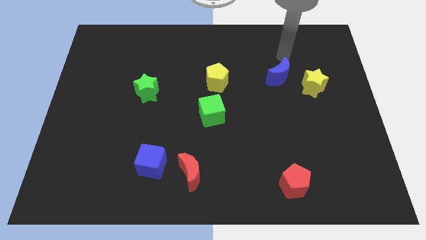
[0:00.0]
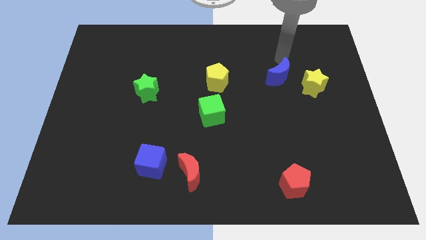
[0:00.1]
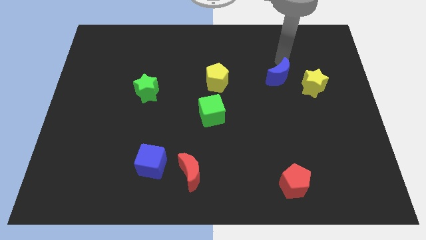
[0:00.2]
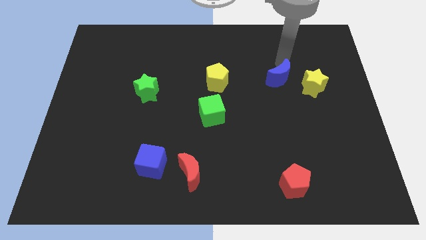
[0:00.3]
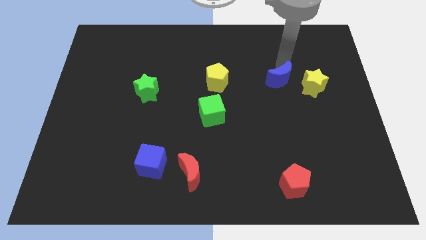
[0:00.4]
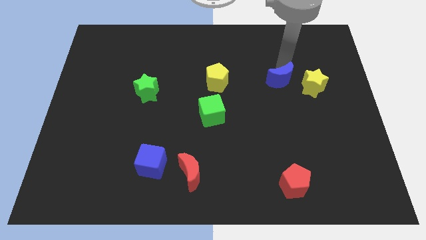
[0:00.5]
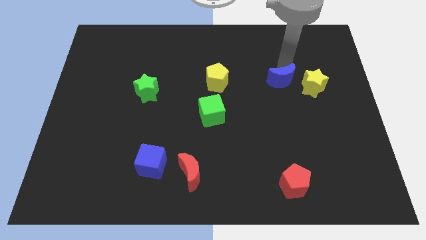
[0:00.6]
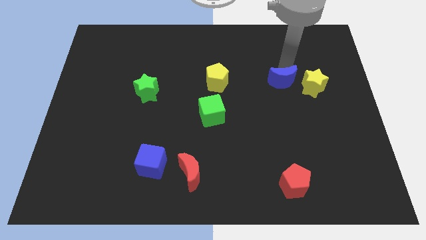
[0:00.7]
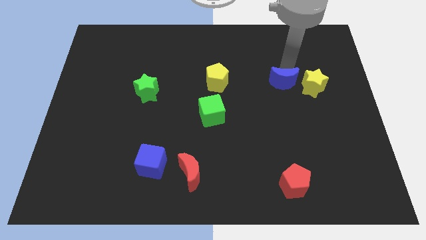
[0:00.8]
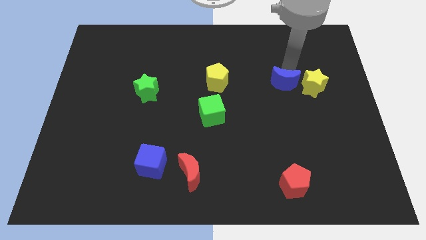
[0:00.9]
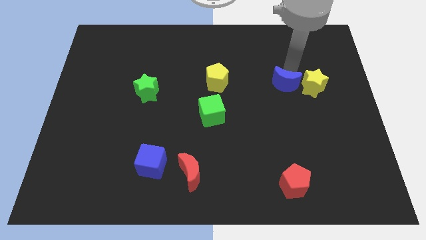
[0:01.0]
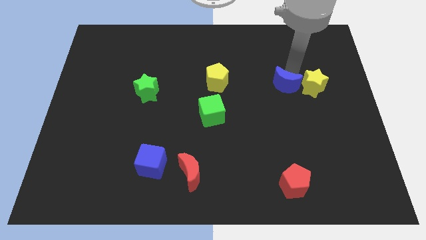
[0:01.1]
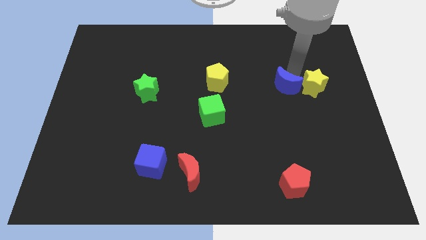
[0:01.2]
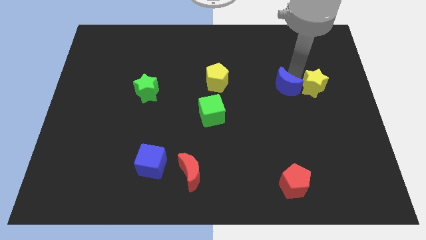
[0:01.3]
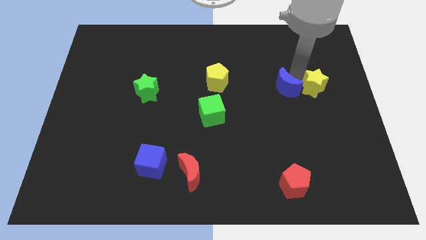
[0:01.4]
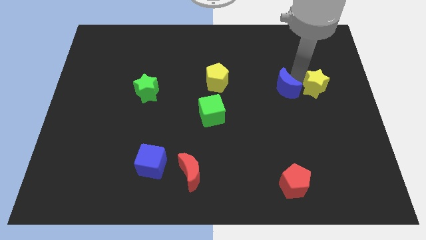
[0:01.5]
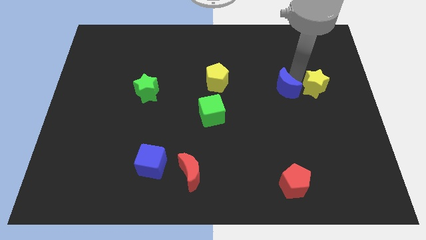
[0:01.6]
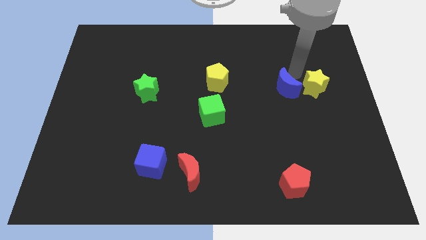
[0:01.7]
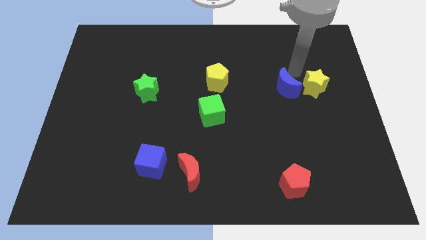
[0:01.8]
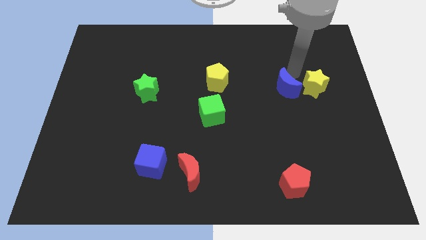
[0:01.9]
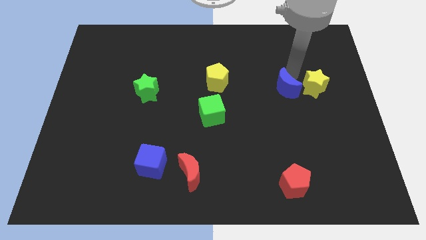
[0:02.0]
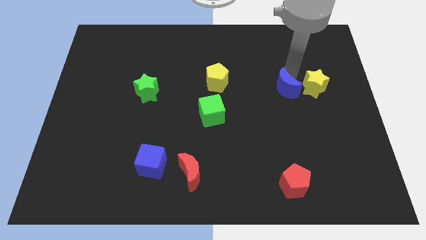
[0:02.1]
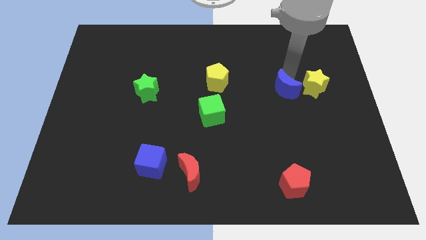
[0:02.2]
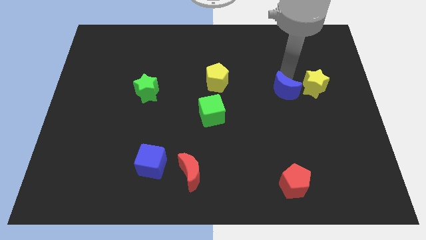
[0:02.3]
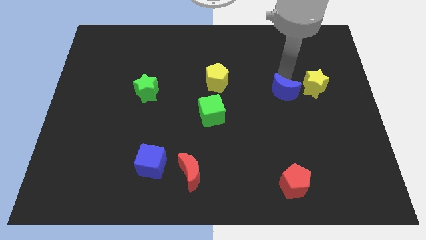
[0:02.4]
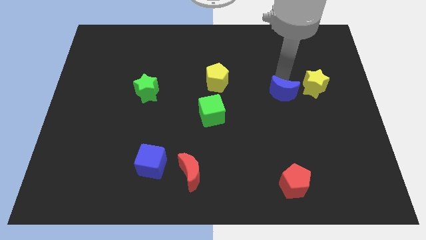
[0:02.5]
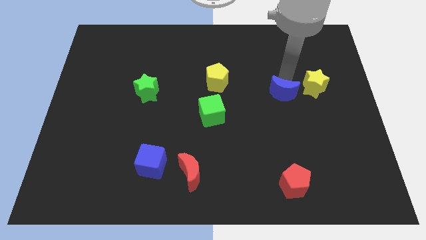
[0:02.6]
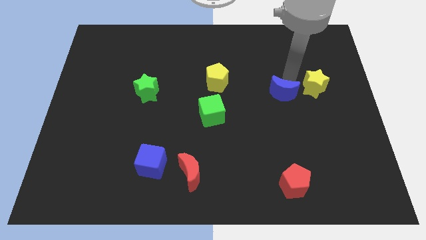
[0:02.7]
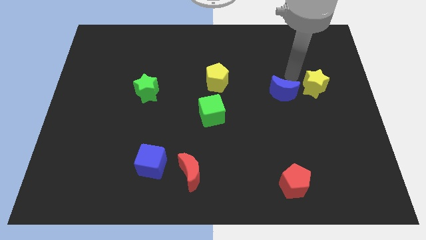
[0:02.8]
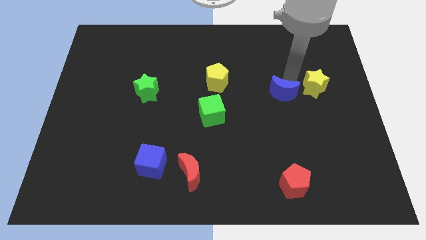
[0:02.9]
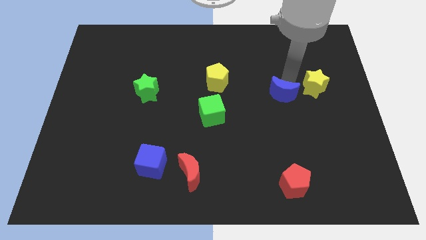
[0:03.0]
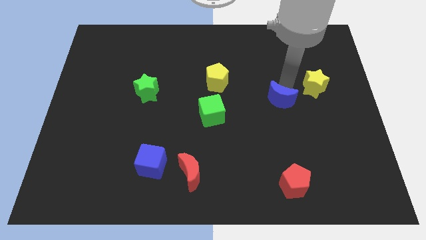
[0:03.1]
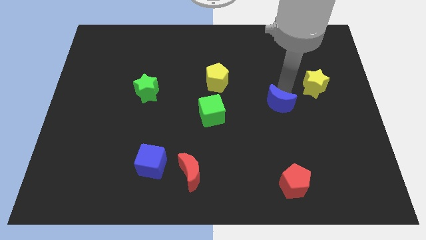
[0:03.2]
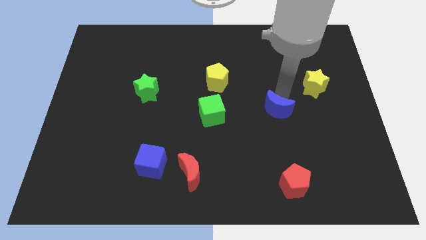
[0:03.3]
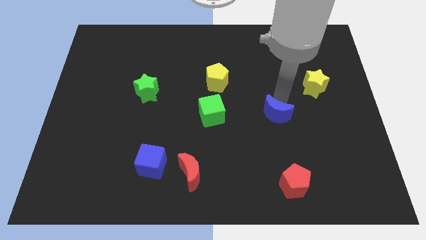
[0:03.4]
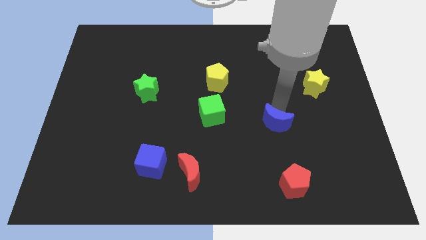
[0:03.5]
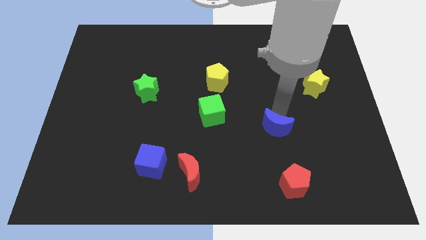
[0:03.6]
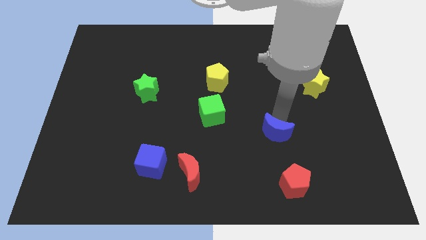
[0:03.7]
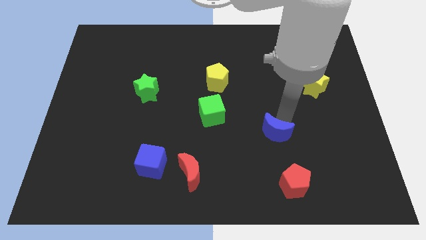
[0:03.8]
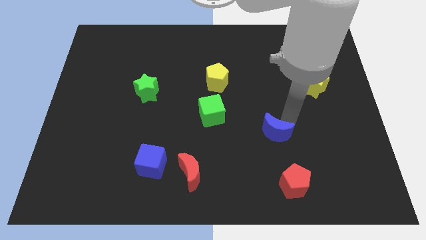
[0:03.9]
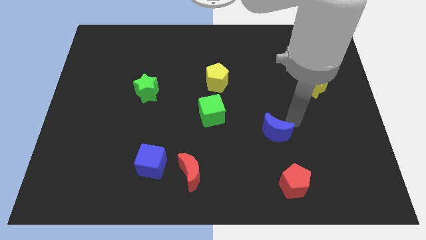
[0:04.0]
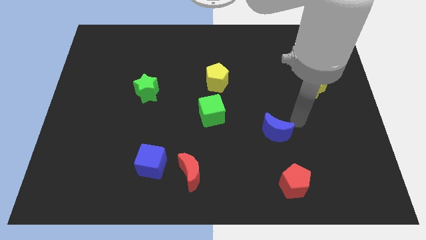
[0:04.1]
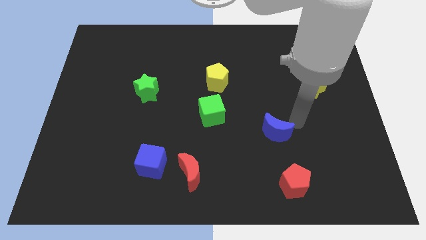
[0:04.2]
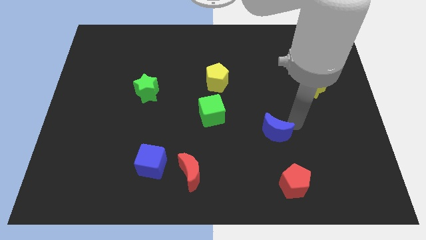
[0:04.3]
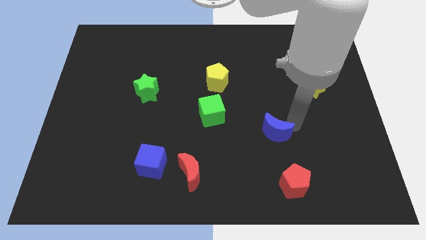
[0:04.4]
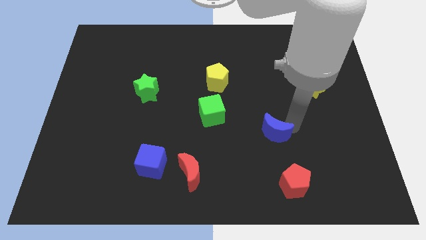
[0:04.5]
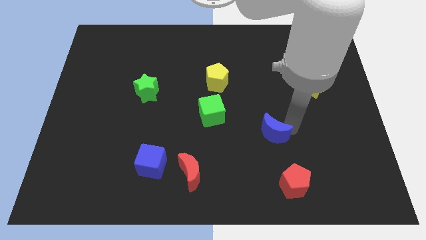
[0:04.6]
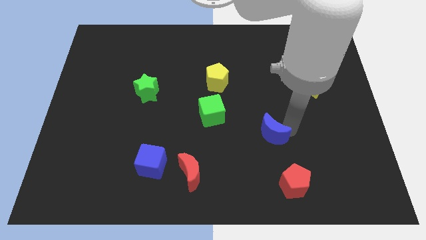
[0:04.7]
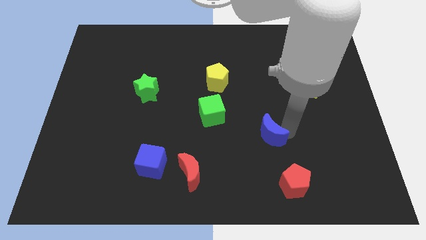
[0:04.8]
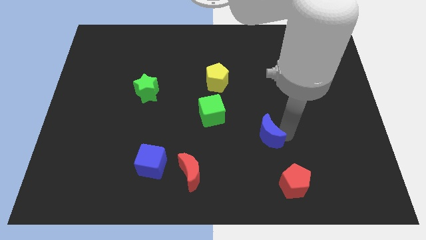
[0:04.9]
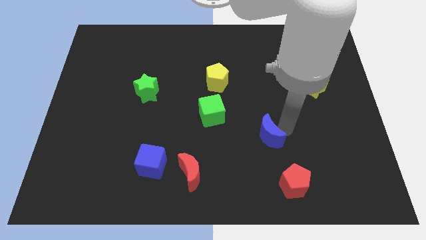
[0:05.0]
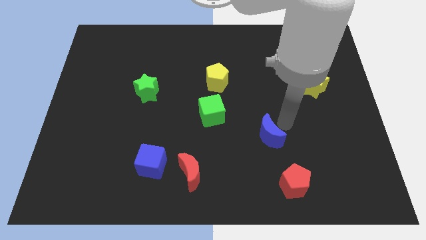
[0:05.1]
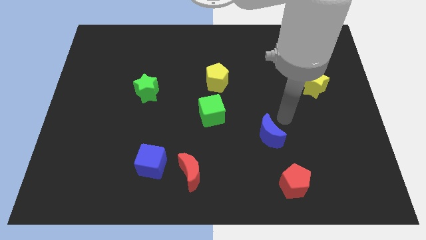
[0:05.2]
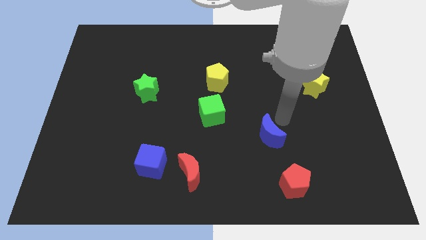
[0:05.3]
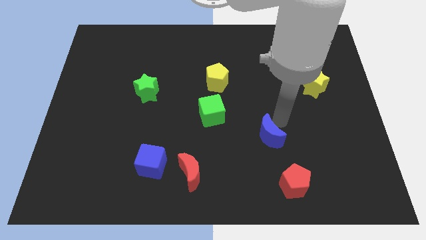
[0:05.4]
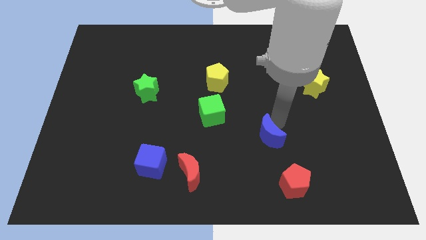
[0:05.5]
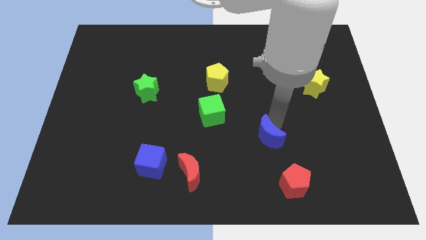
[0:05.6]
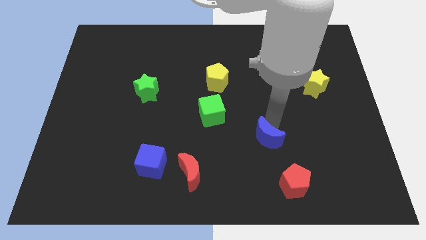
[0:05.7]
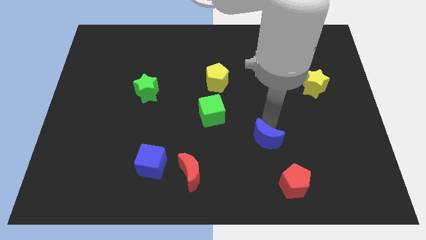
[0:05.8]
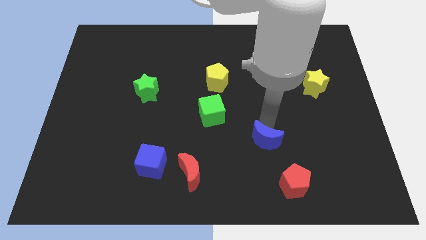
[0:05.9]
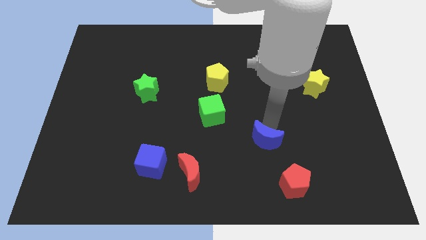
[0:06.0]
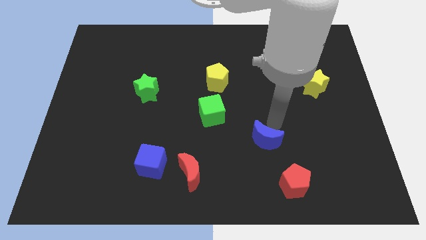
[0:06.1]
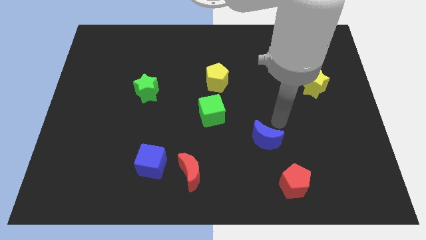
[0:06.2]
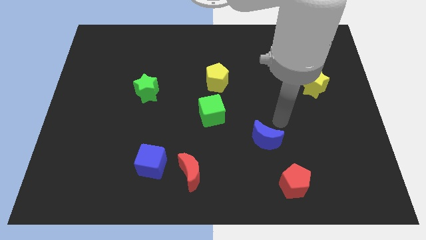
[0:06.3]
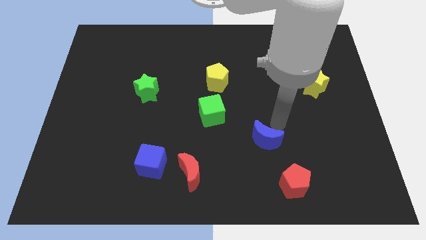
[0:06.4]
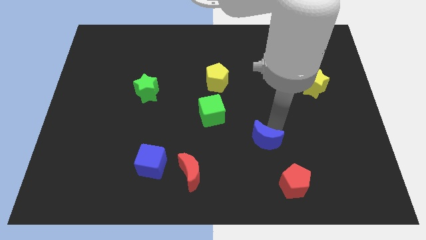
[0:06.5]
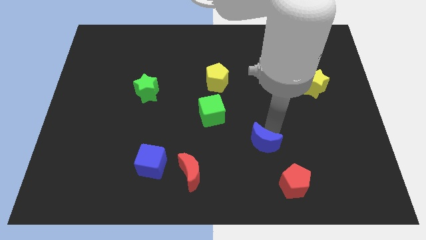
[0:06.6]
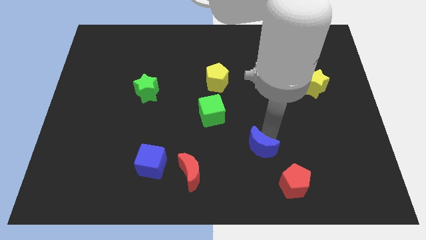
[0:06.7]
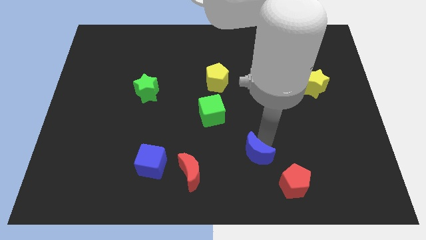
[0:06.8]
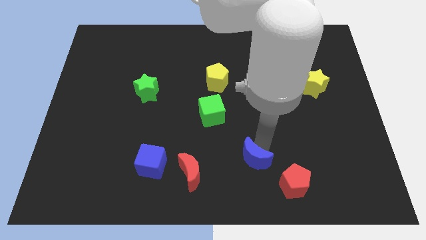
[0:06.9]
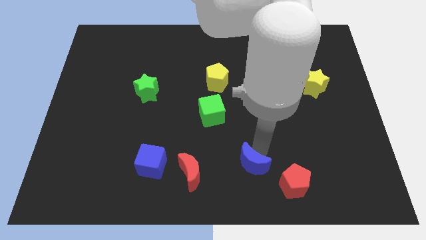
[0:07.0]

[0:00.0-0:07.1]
push the blue moon to the left of the red pentagon

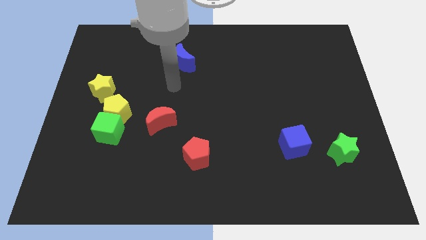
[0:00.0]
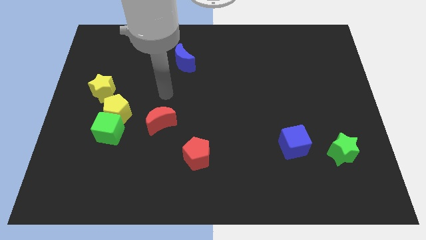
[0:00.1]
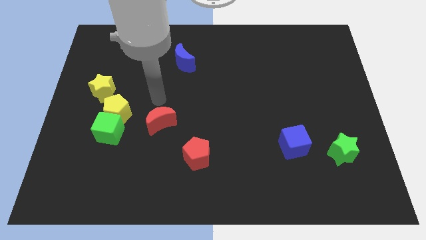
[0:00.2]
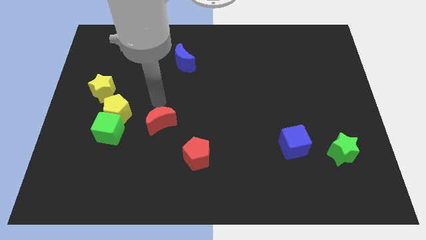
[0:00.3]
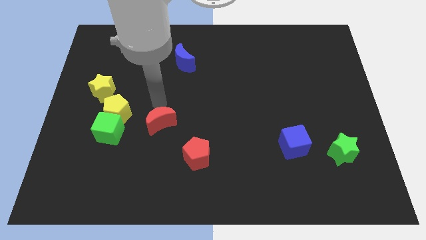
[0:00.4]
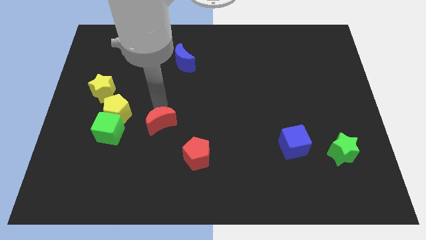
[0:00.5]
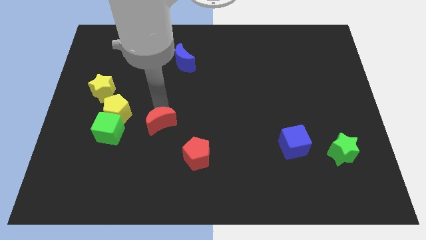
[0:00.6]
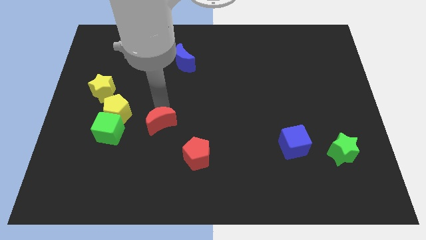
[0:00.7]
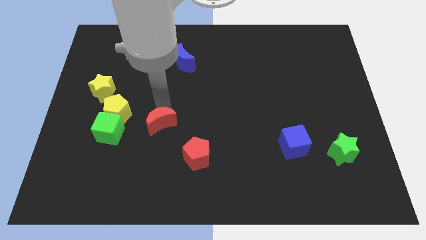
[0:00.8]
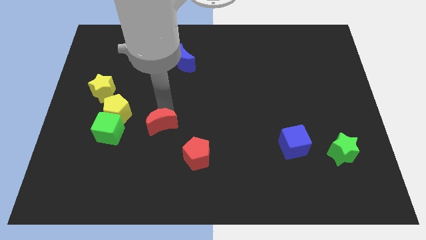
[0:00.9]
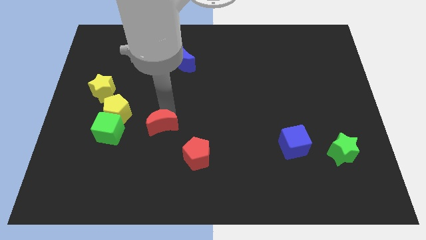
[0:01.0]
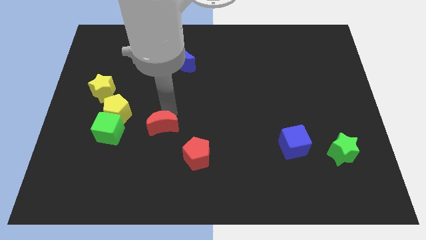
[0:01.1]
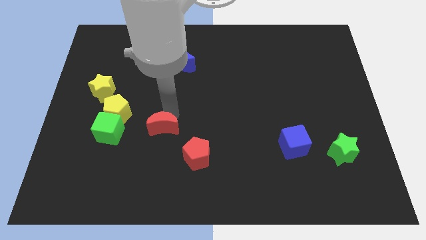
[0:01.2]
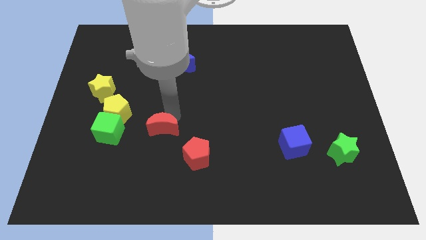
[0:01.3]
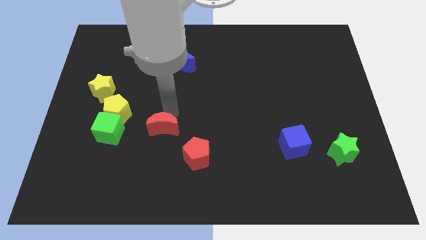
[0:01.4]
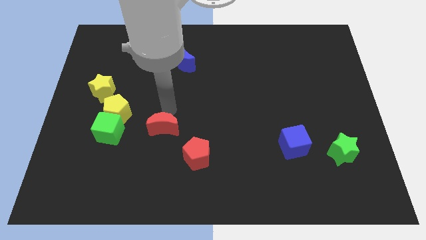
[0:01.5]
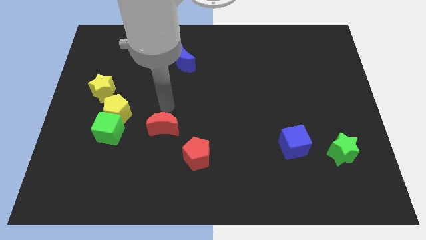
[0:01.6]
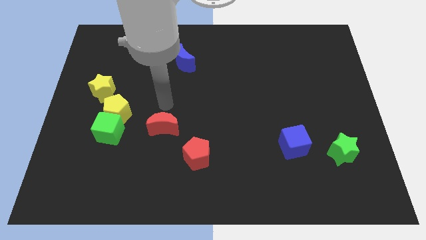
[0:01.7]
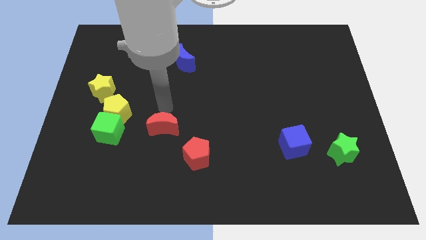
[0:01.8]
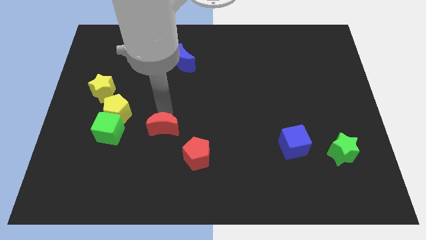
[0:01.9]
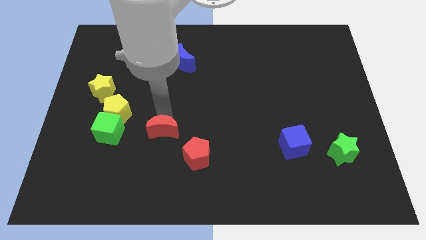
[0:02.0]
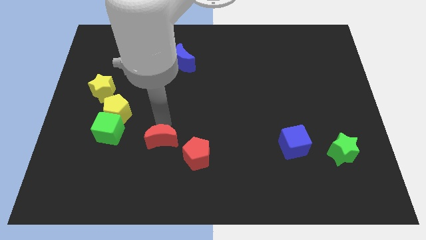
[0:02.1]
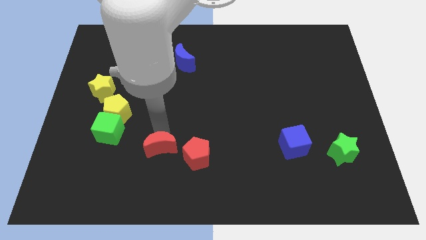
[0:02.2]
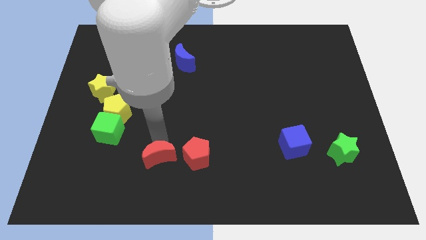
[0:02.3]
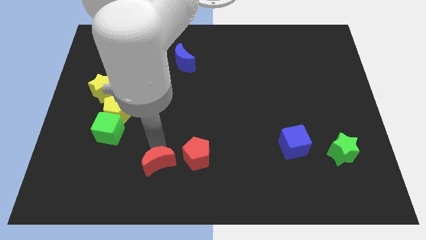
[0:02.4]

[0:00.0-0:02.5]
put the red moon diagonally down and to the left of the red pentagon
